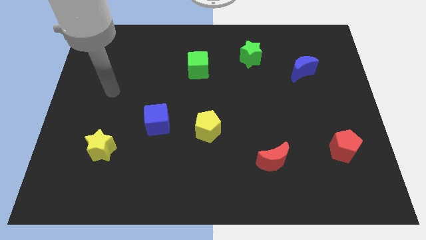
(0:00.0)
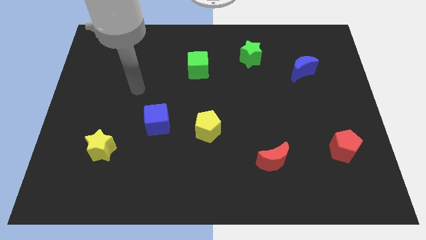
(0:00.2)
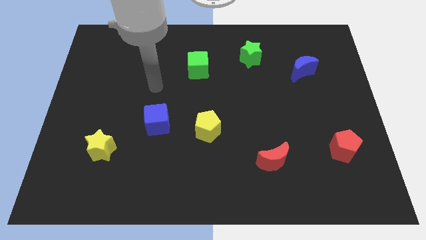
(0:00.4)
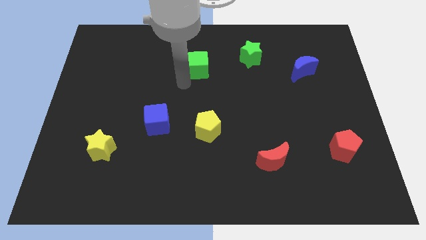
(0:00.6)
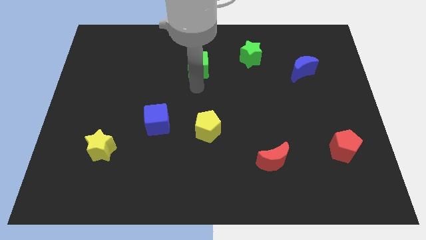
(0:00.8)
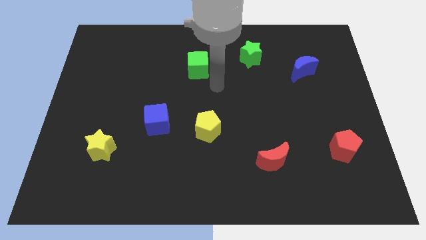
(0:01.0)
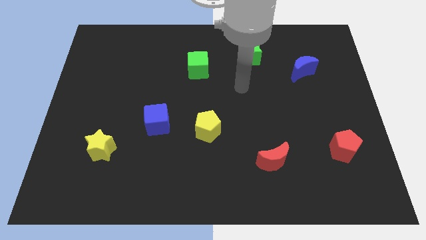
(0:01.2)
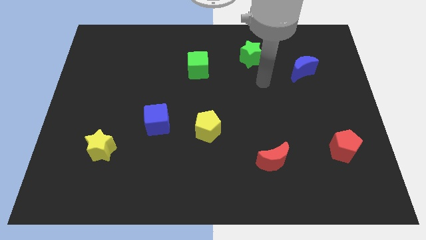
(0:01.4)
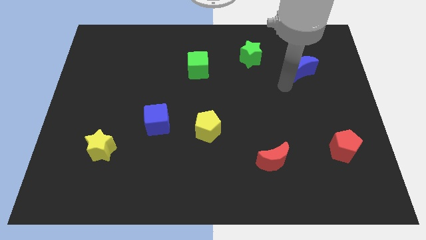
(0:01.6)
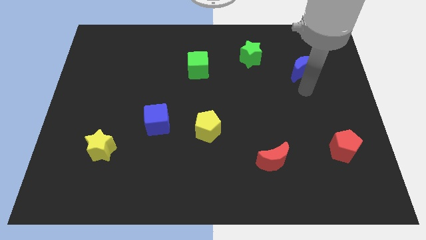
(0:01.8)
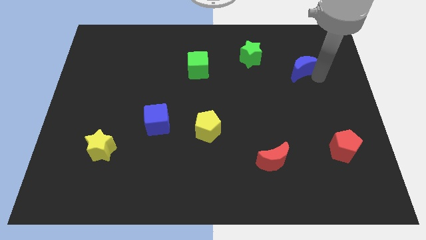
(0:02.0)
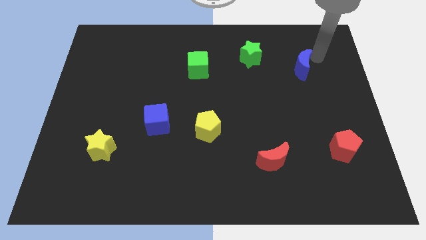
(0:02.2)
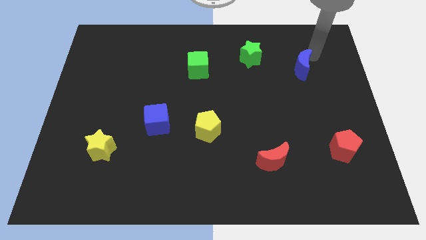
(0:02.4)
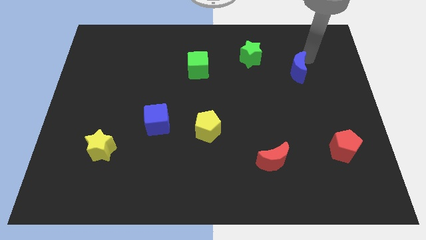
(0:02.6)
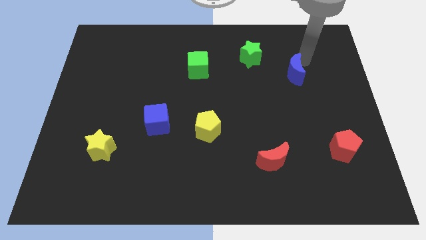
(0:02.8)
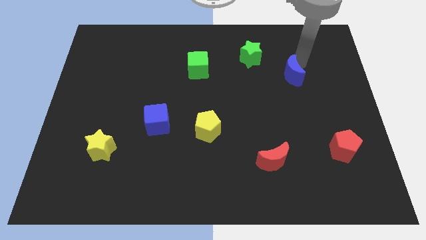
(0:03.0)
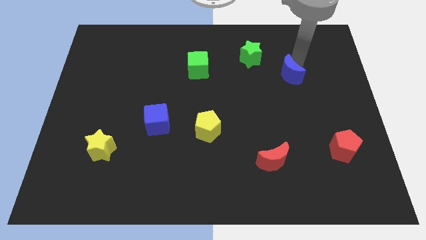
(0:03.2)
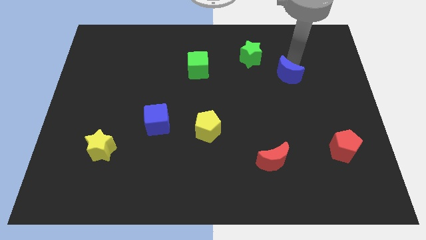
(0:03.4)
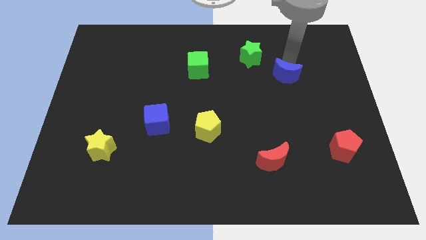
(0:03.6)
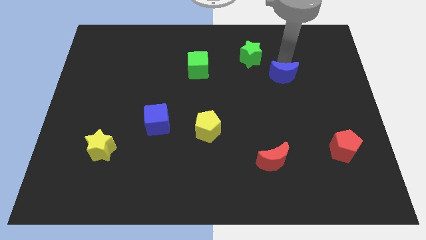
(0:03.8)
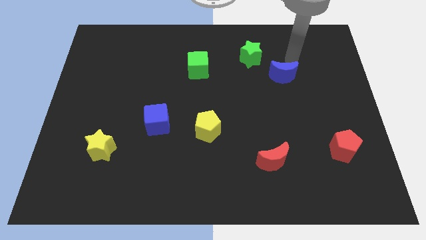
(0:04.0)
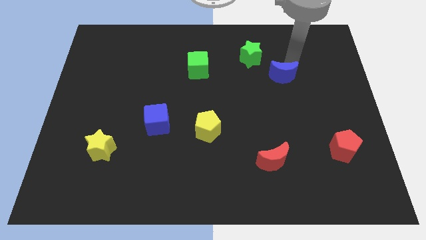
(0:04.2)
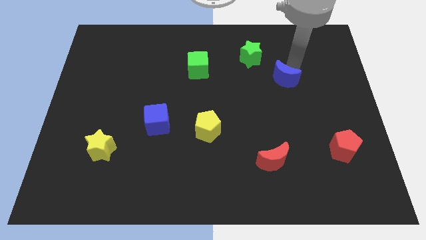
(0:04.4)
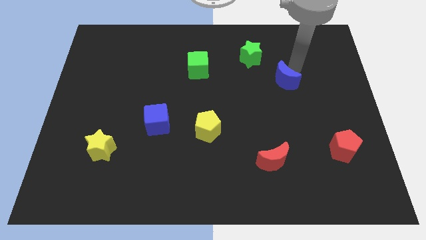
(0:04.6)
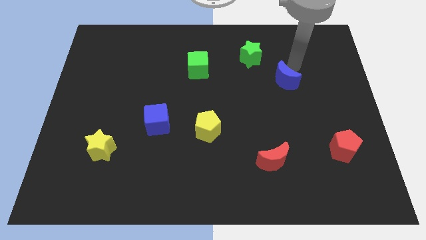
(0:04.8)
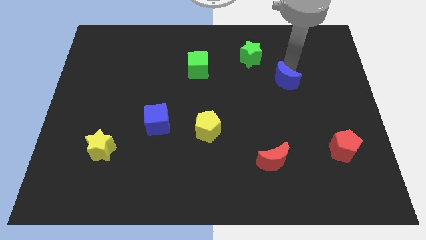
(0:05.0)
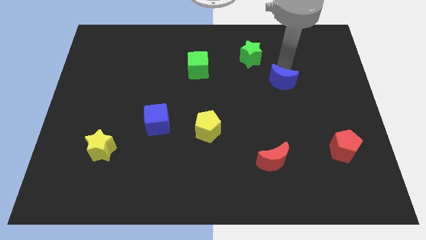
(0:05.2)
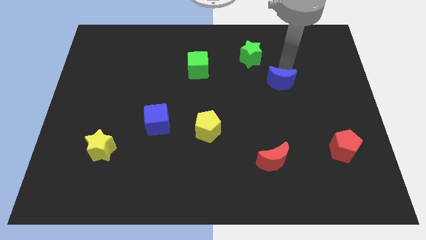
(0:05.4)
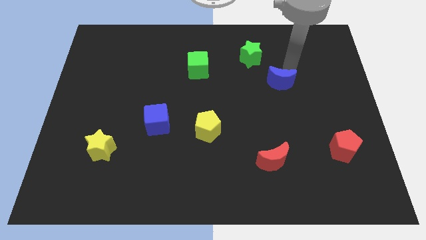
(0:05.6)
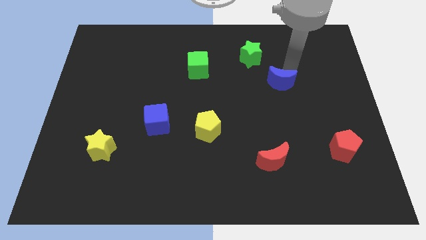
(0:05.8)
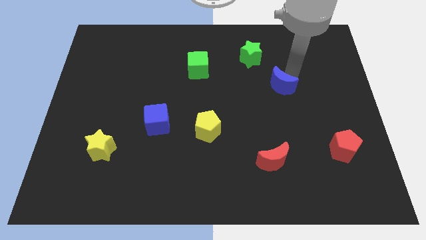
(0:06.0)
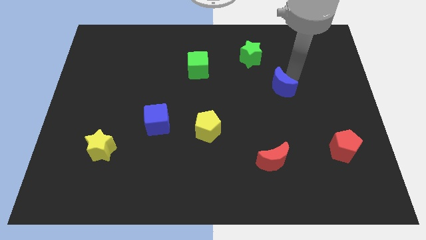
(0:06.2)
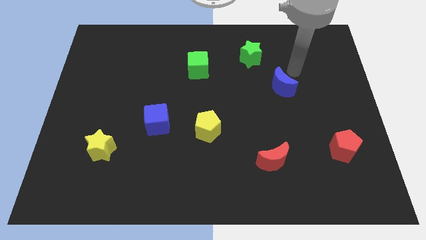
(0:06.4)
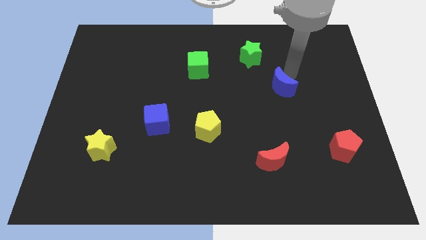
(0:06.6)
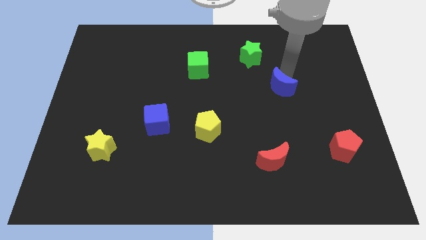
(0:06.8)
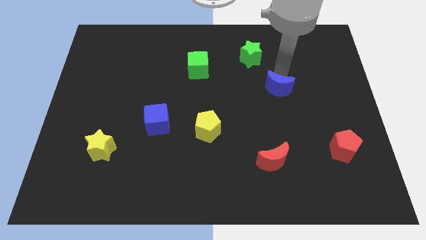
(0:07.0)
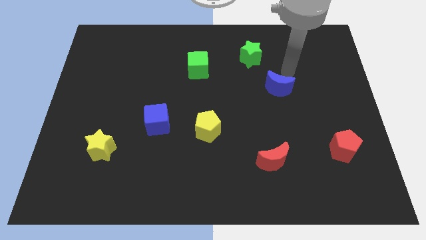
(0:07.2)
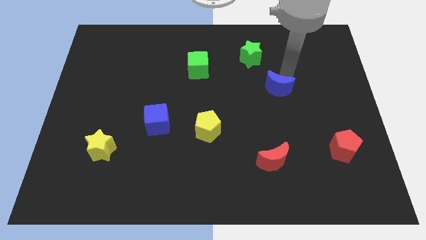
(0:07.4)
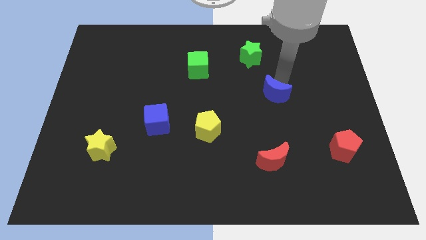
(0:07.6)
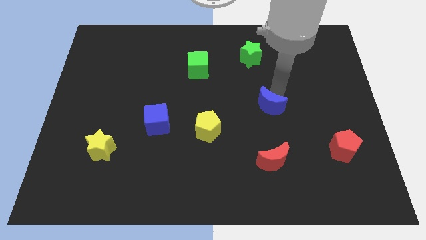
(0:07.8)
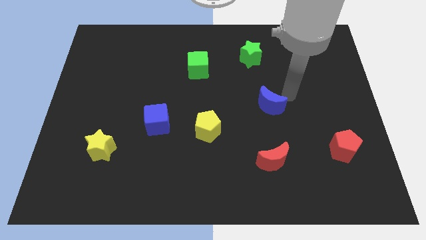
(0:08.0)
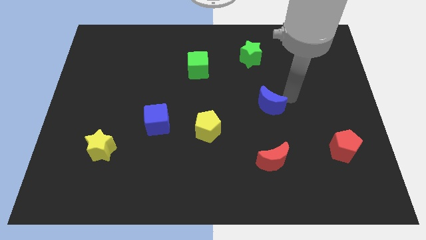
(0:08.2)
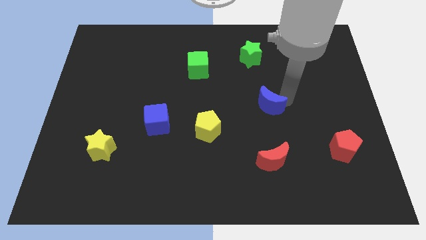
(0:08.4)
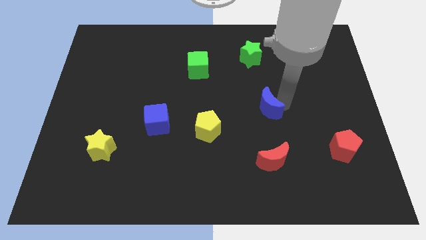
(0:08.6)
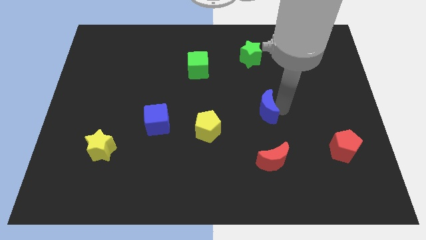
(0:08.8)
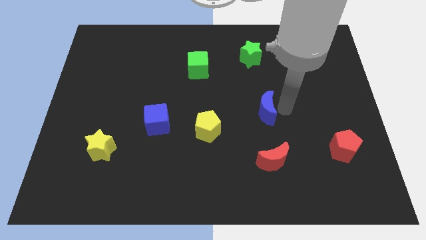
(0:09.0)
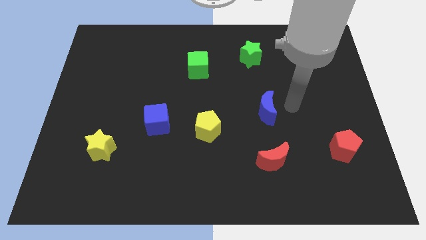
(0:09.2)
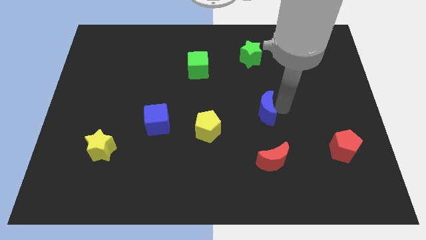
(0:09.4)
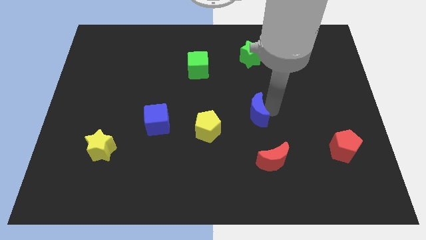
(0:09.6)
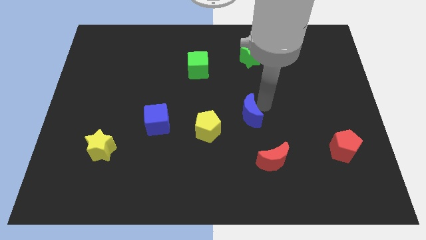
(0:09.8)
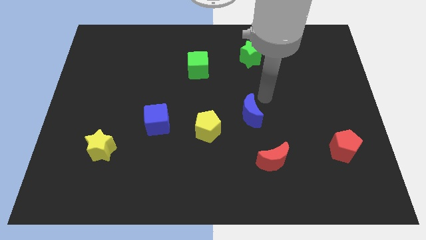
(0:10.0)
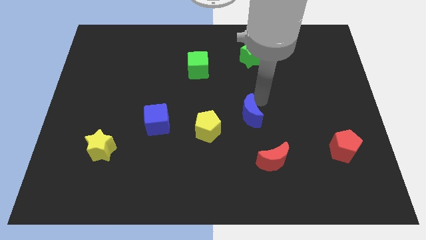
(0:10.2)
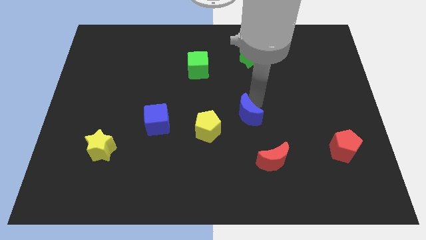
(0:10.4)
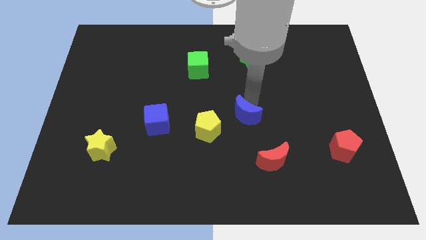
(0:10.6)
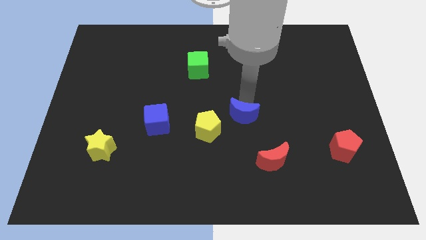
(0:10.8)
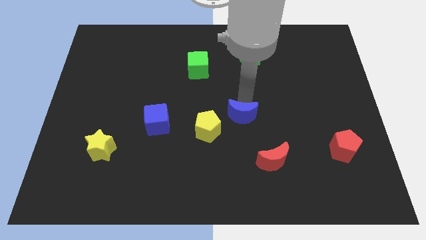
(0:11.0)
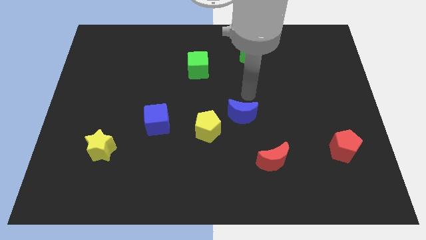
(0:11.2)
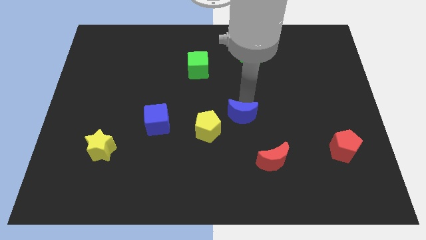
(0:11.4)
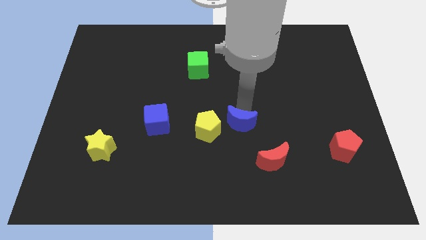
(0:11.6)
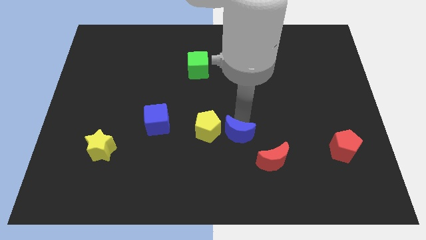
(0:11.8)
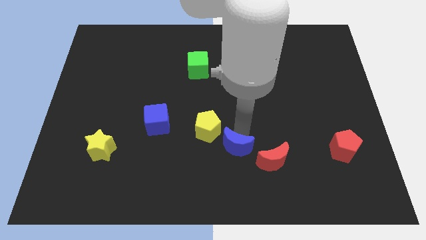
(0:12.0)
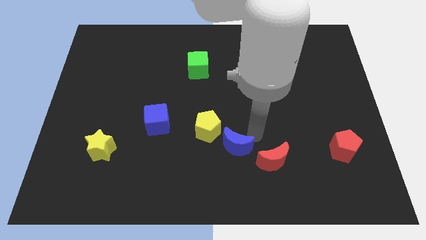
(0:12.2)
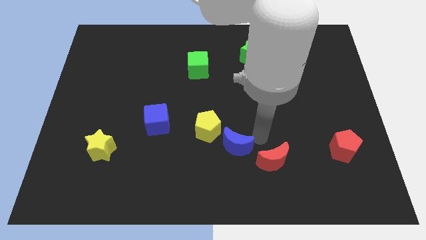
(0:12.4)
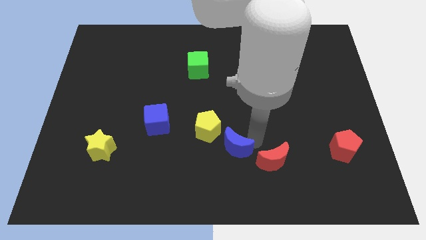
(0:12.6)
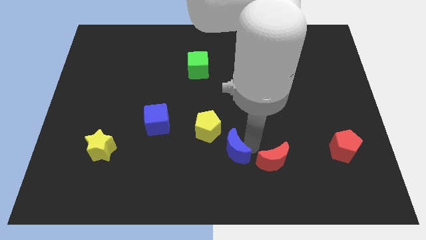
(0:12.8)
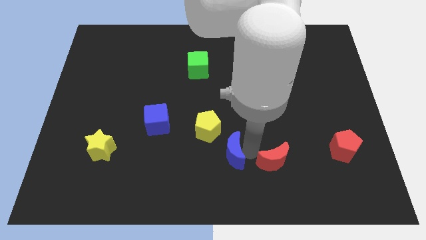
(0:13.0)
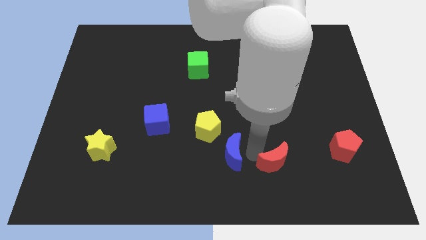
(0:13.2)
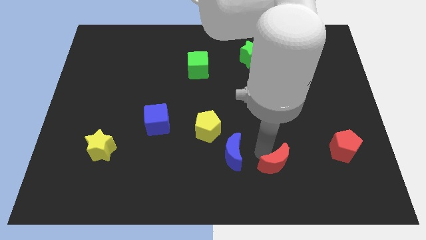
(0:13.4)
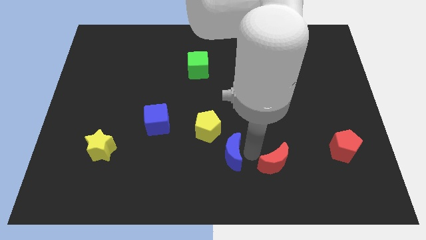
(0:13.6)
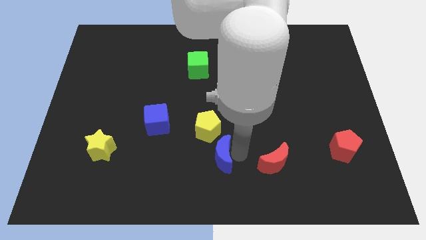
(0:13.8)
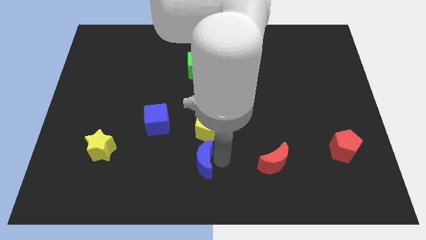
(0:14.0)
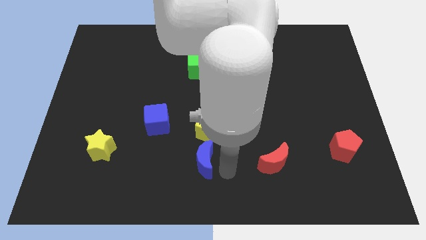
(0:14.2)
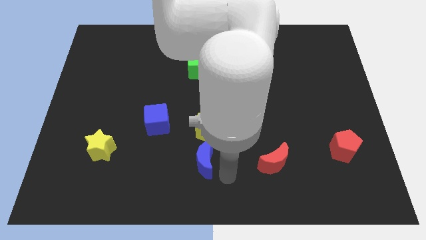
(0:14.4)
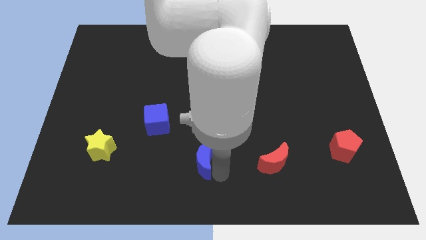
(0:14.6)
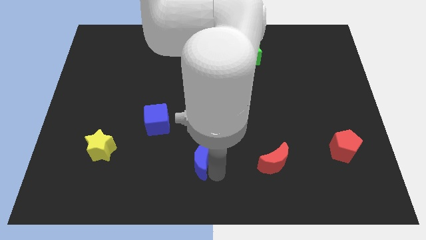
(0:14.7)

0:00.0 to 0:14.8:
move the blue moon to the bottom left of the yellow pentagon
